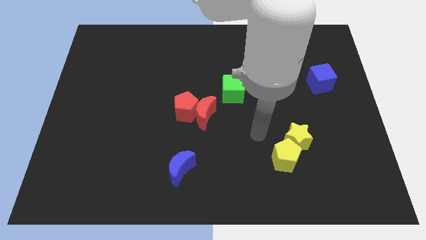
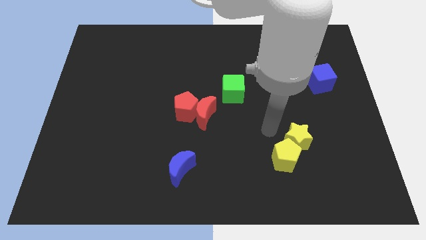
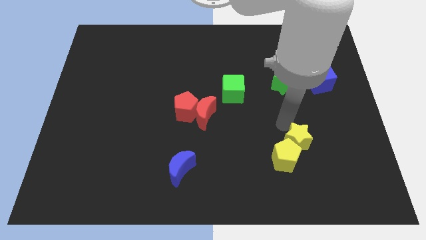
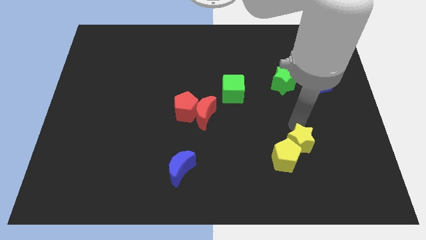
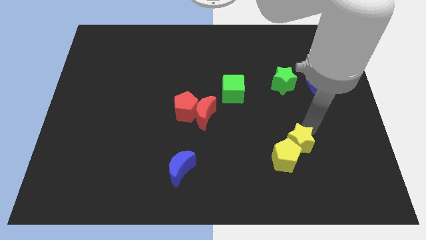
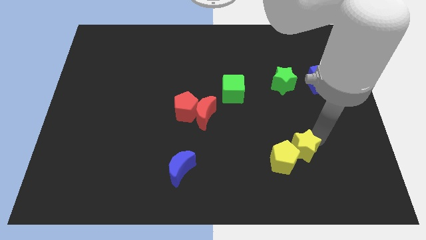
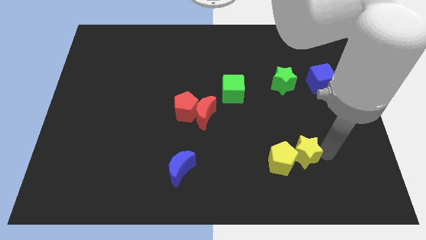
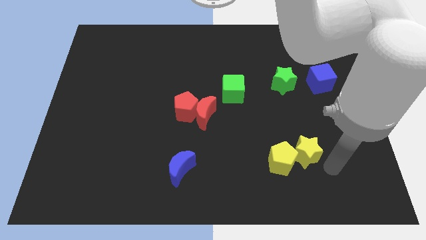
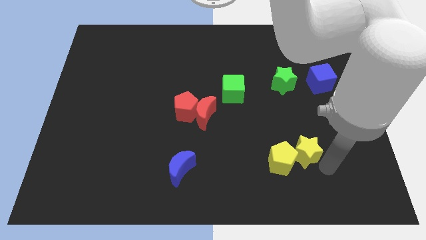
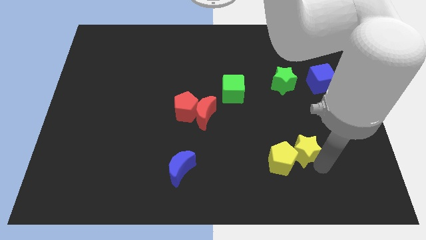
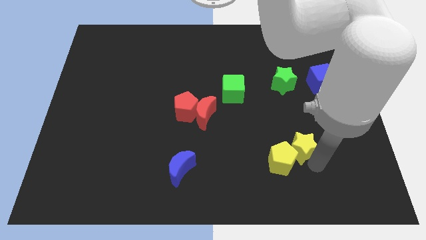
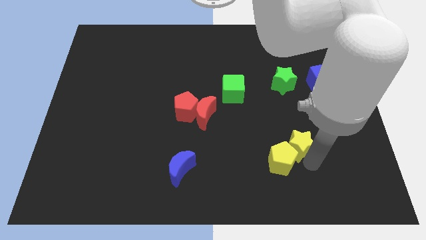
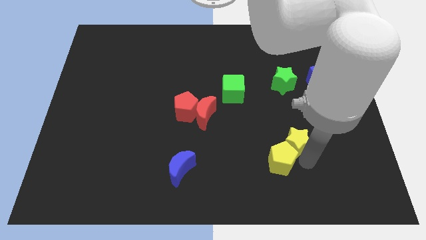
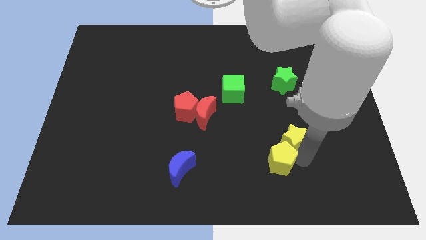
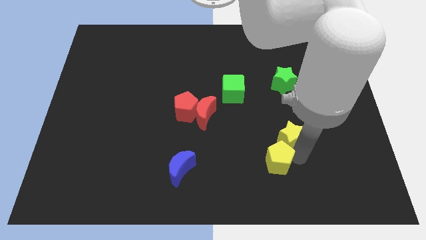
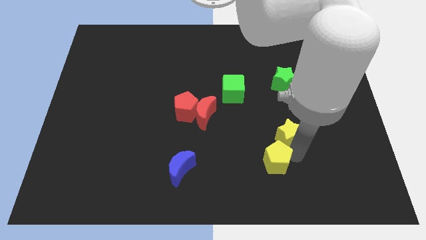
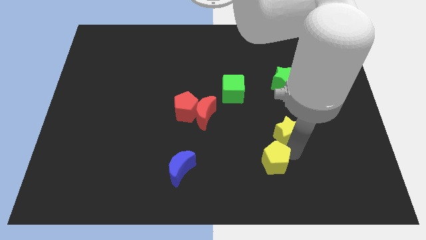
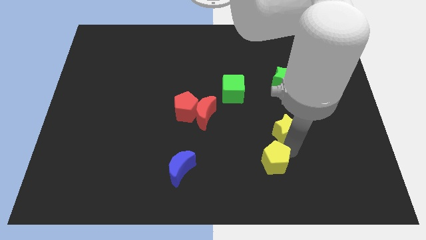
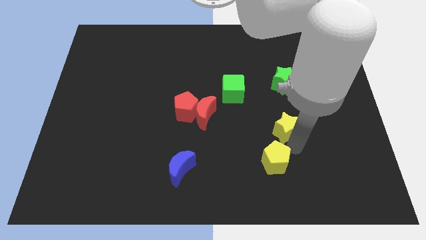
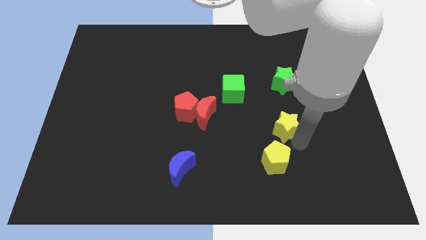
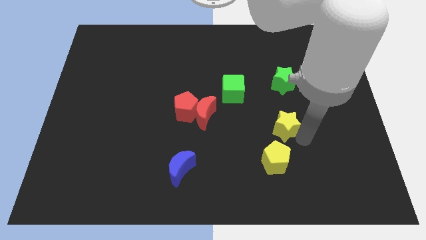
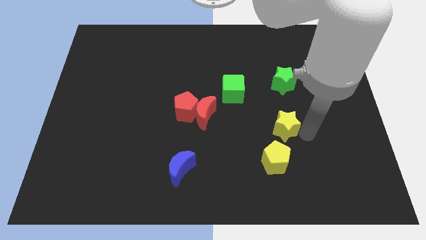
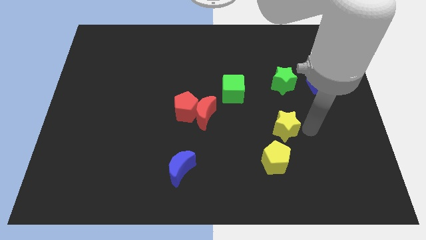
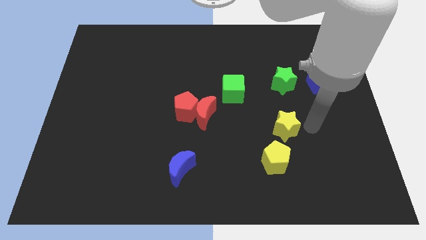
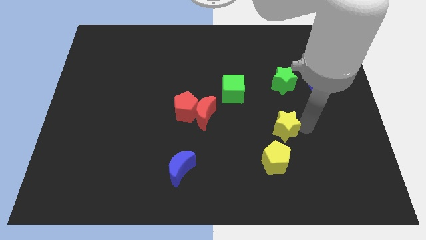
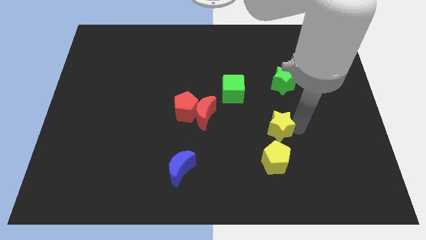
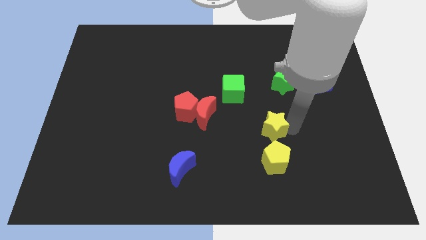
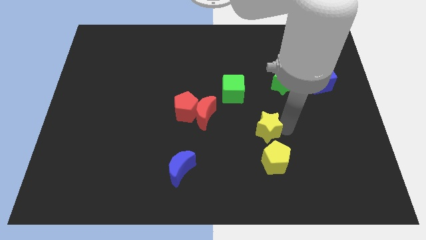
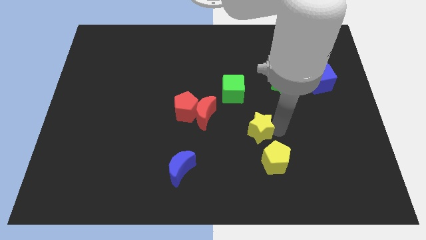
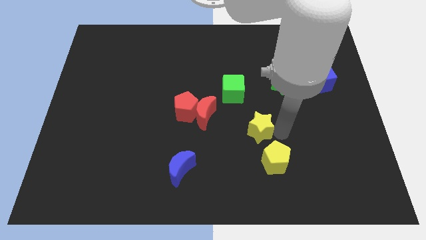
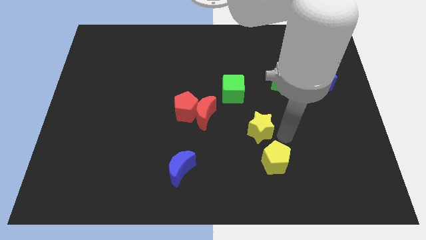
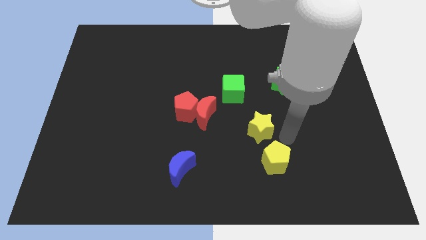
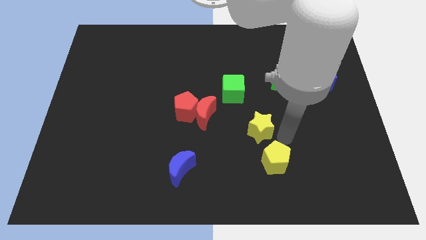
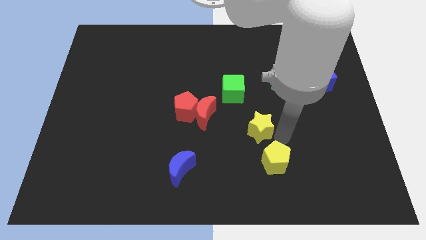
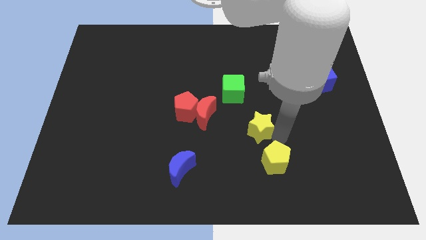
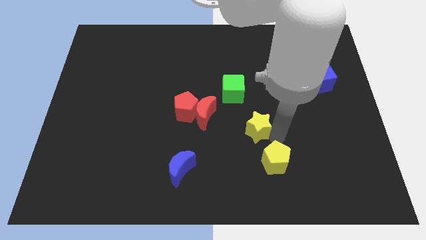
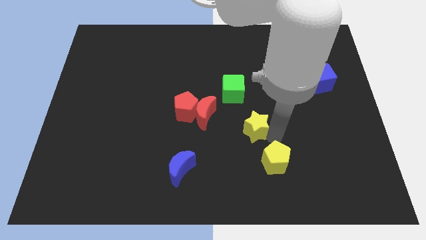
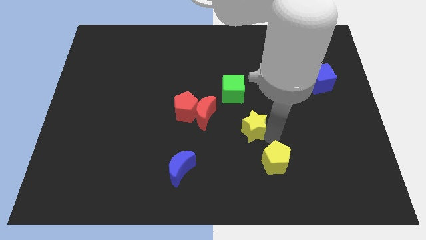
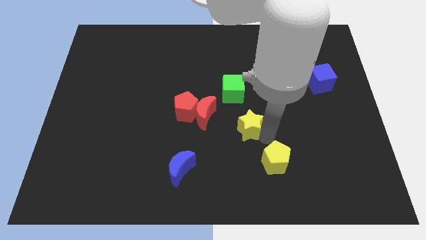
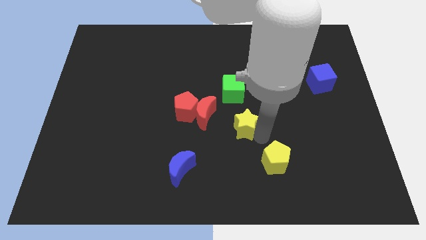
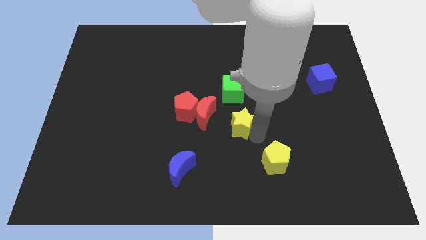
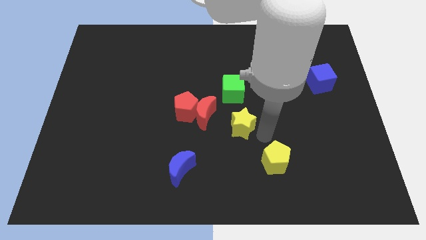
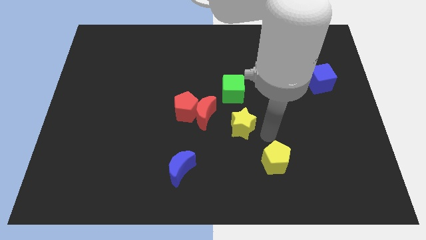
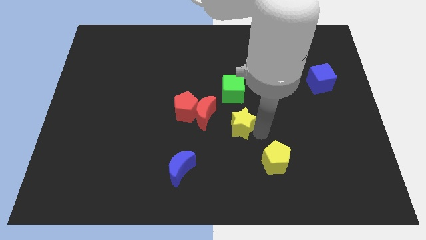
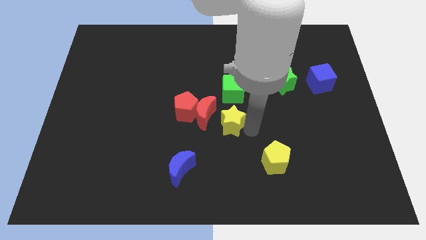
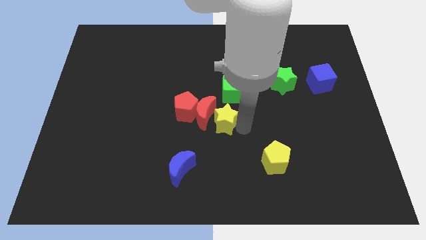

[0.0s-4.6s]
put the yellow star to the red moon

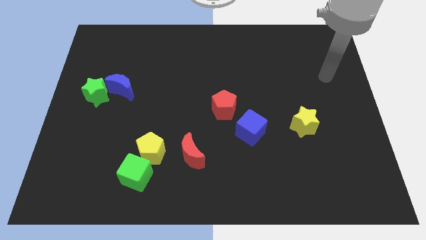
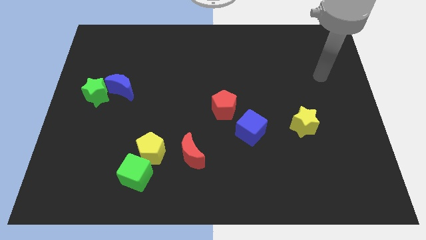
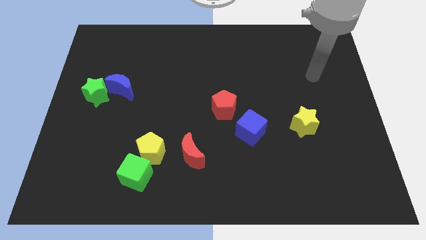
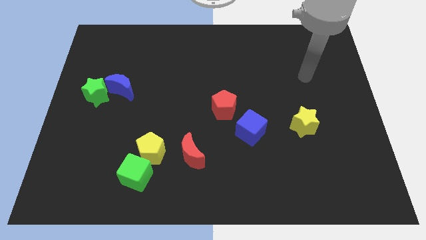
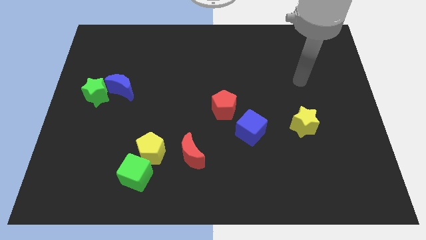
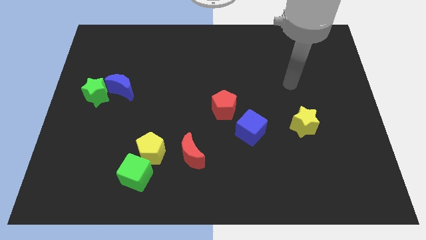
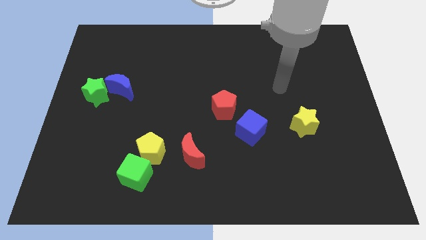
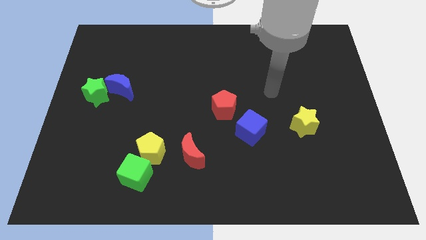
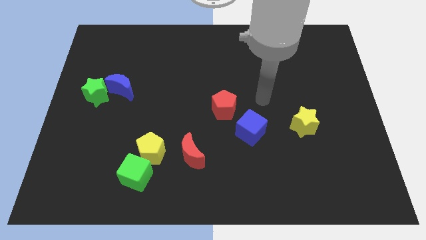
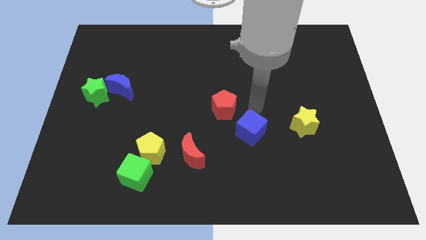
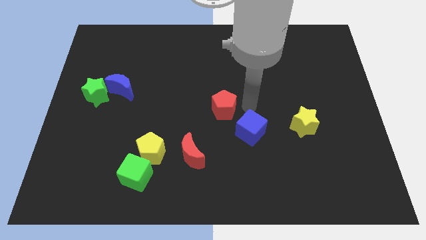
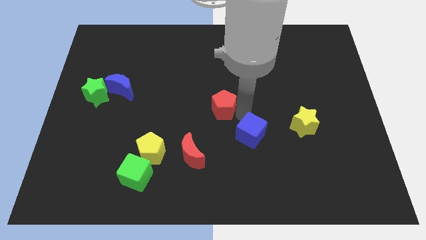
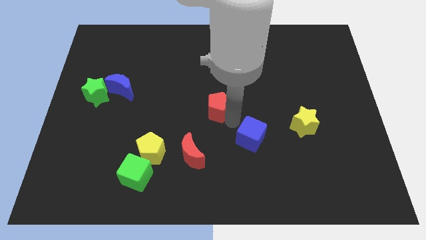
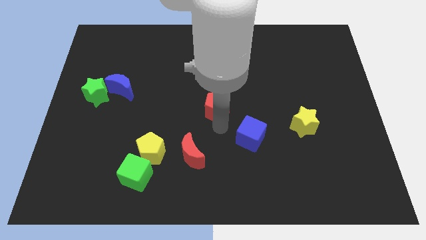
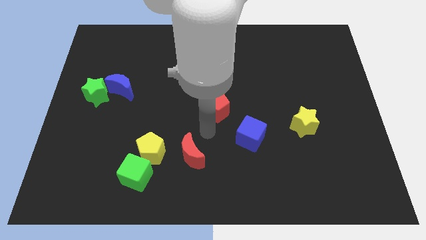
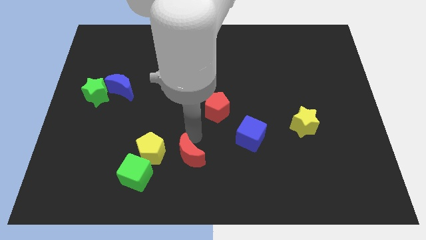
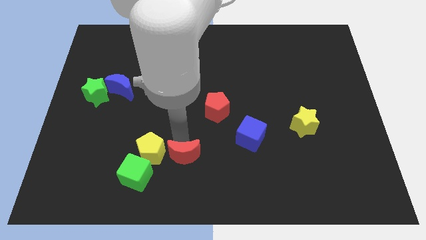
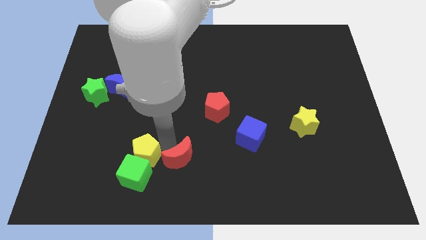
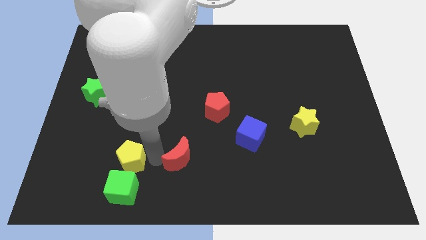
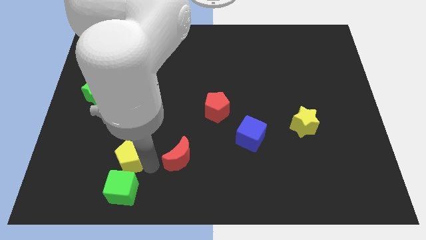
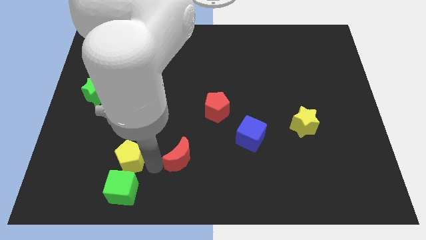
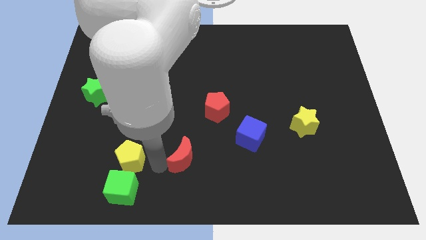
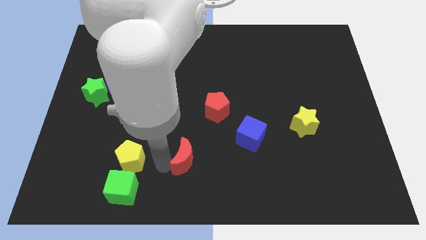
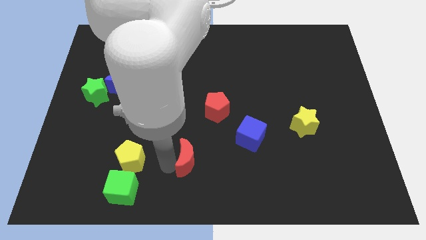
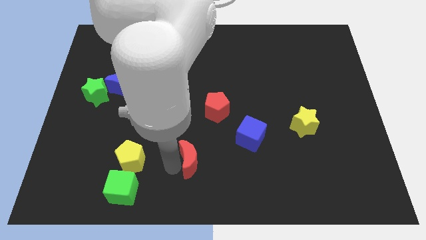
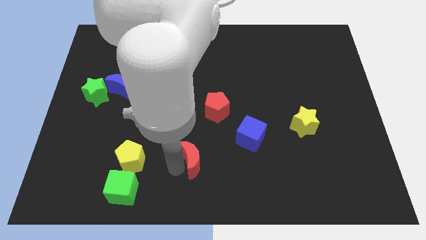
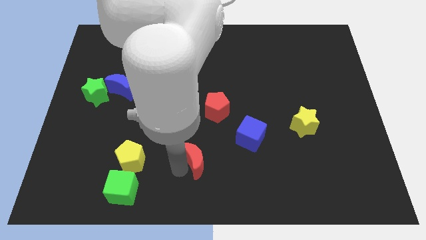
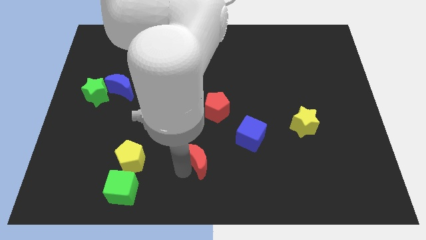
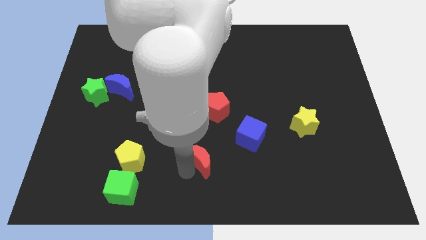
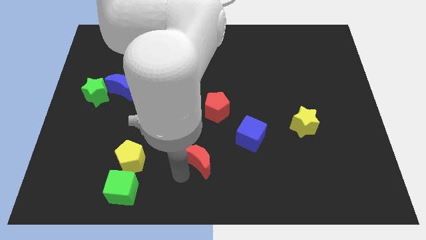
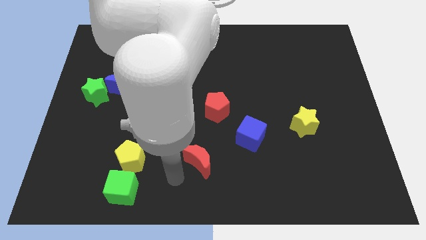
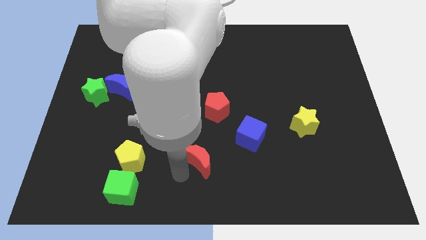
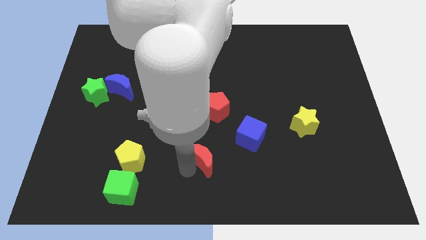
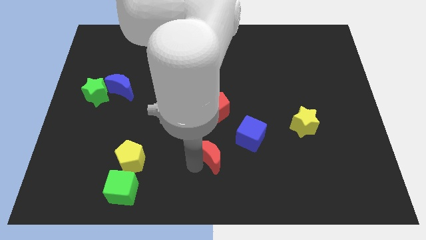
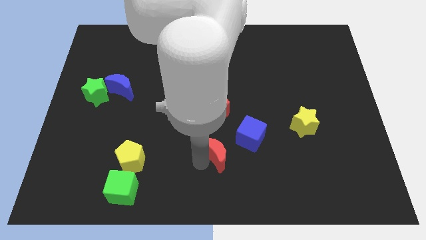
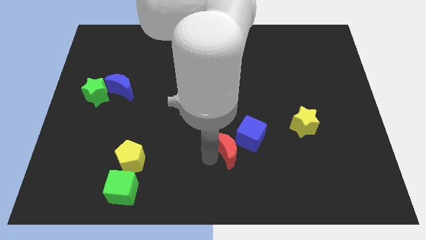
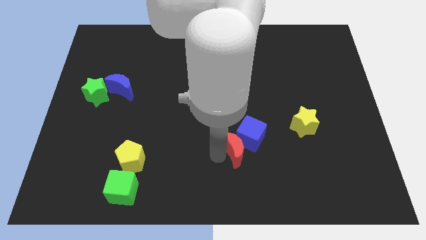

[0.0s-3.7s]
push the red moon to the blue cube
